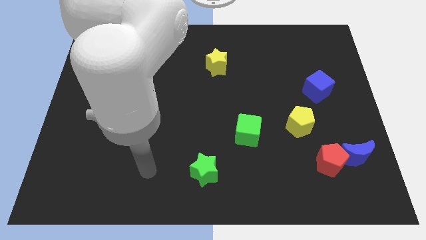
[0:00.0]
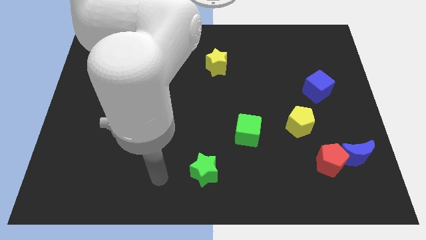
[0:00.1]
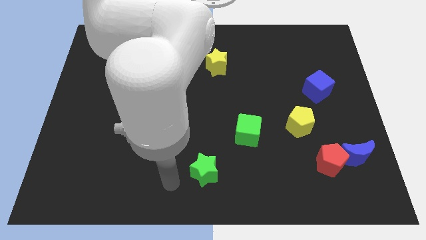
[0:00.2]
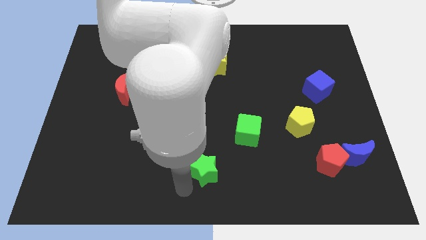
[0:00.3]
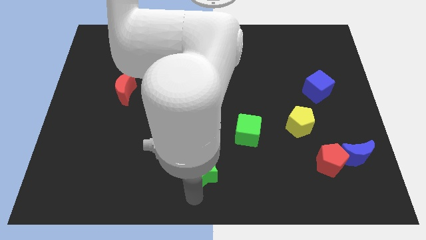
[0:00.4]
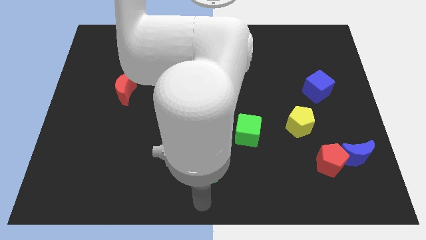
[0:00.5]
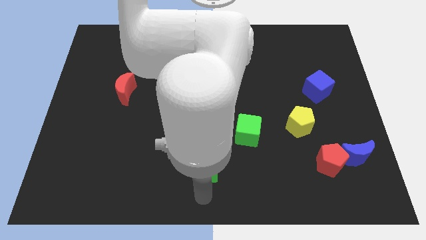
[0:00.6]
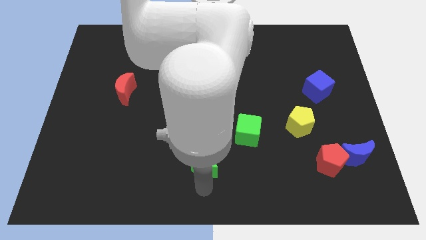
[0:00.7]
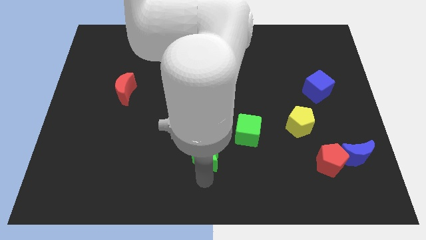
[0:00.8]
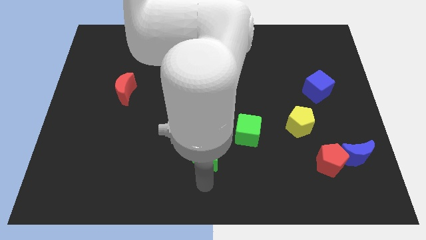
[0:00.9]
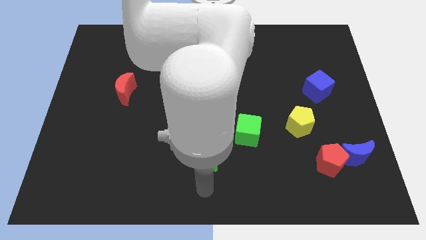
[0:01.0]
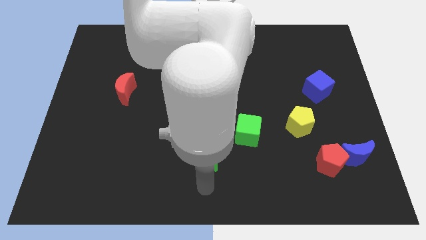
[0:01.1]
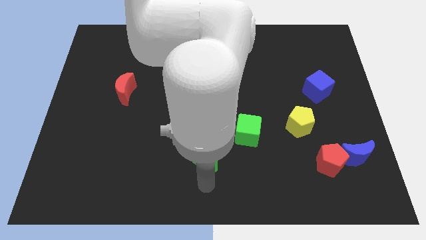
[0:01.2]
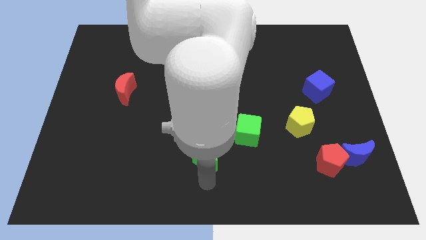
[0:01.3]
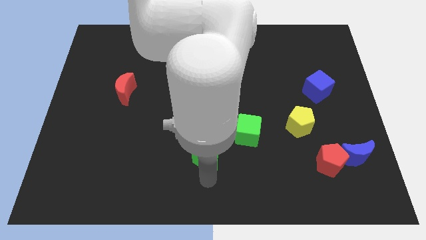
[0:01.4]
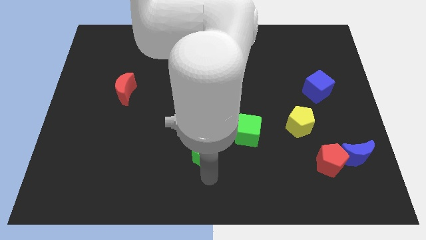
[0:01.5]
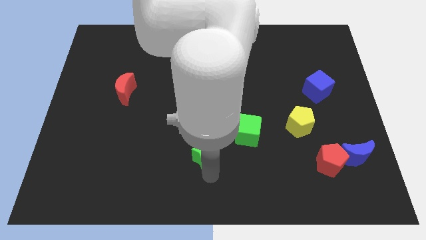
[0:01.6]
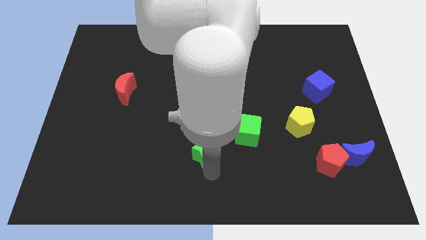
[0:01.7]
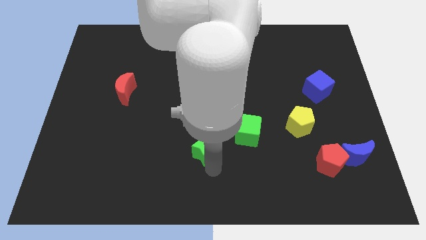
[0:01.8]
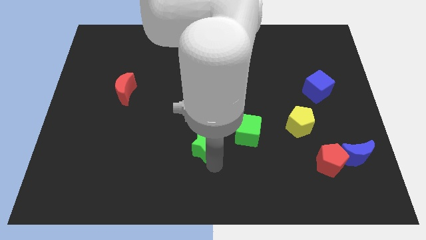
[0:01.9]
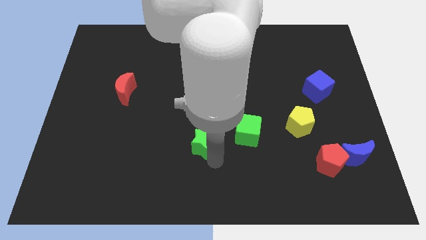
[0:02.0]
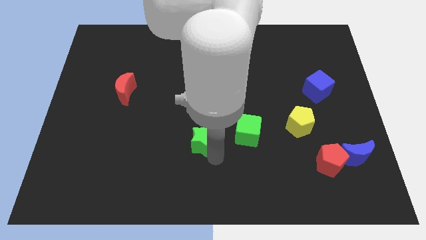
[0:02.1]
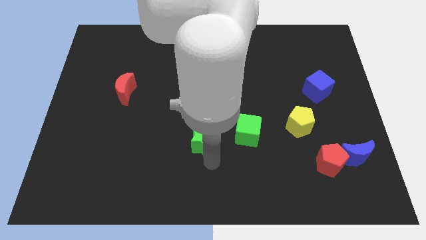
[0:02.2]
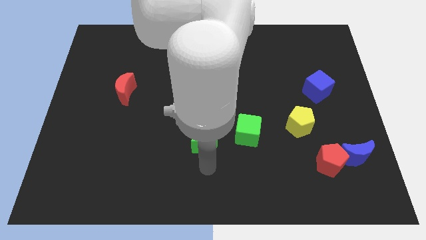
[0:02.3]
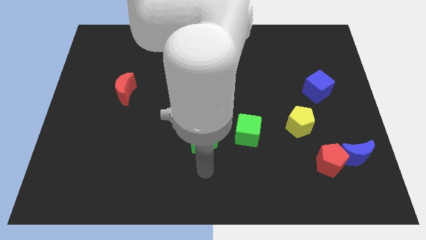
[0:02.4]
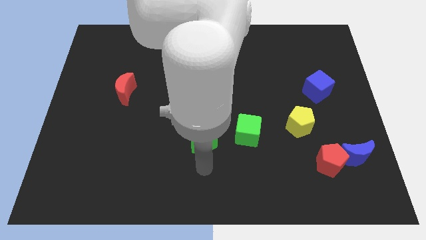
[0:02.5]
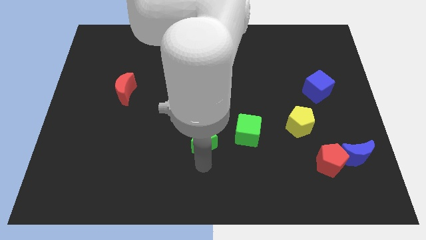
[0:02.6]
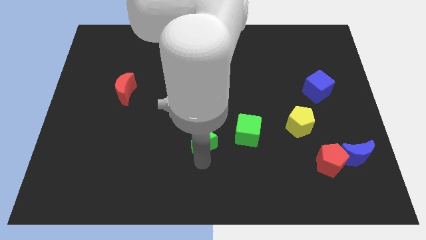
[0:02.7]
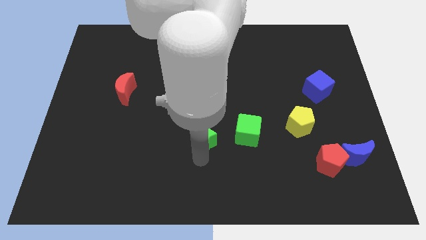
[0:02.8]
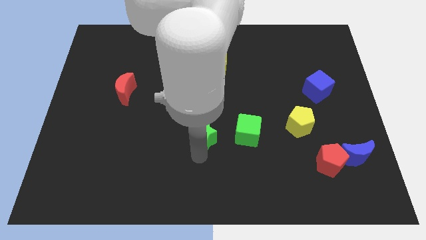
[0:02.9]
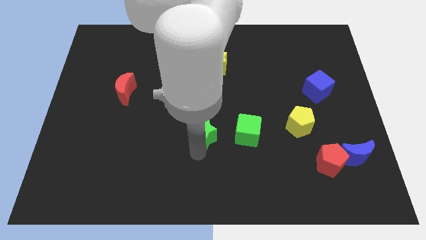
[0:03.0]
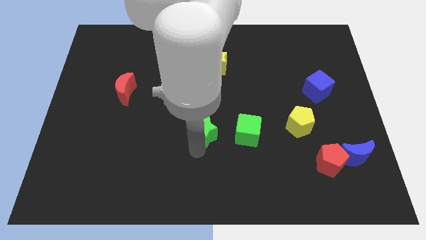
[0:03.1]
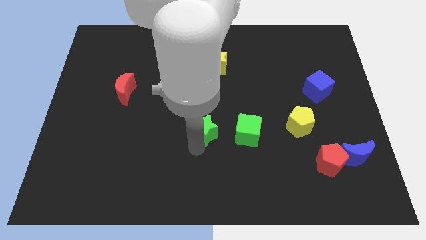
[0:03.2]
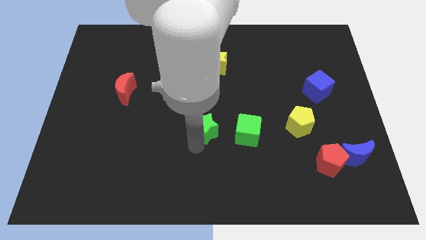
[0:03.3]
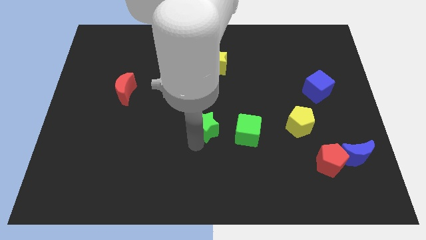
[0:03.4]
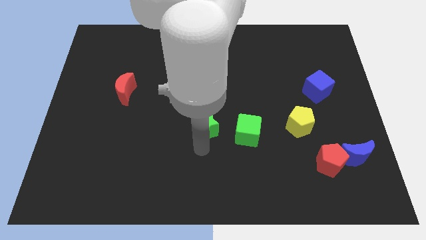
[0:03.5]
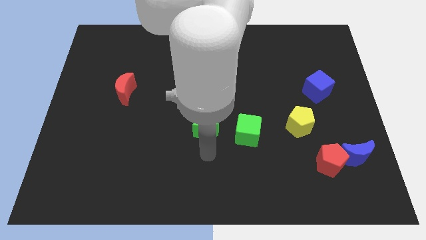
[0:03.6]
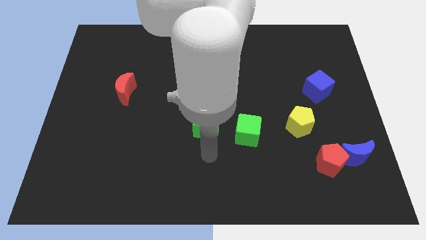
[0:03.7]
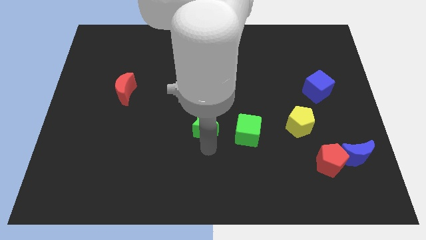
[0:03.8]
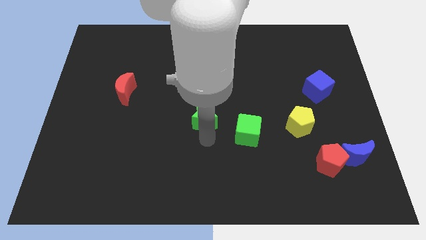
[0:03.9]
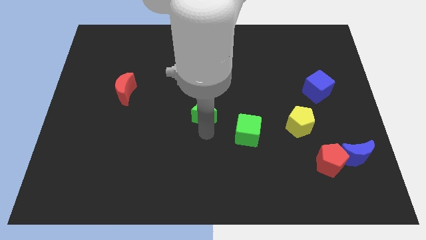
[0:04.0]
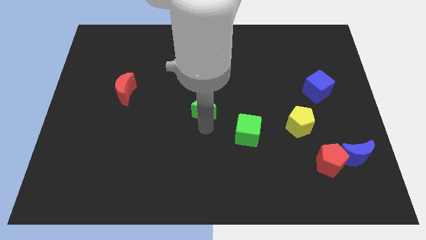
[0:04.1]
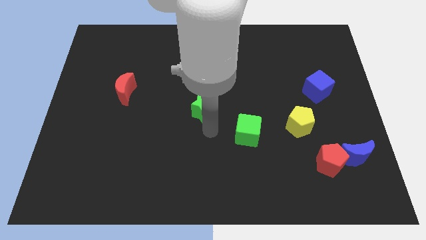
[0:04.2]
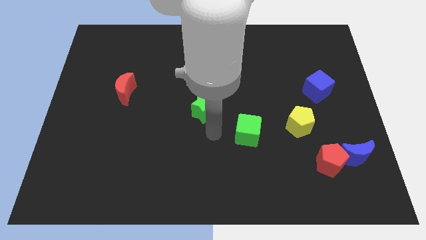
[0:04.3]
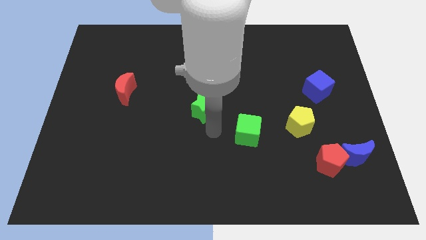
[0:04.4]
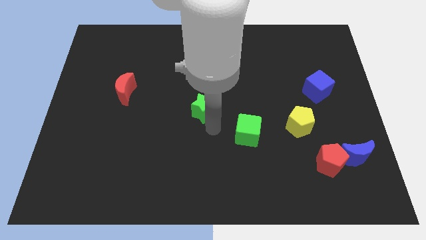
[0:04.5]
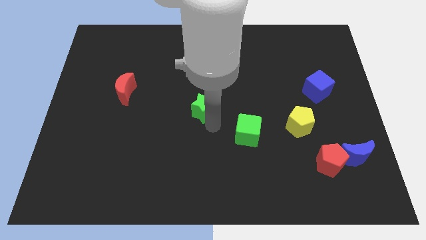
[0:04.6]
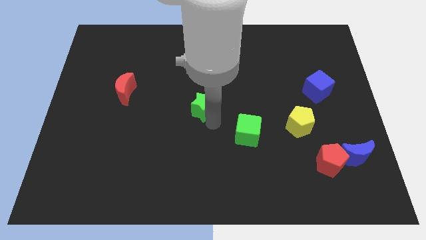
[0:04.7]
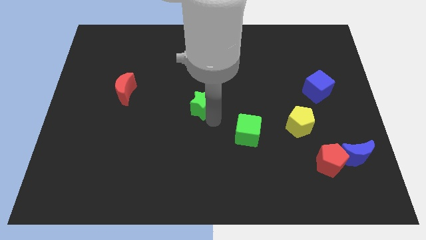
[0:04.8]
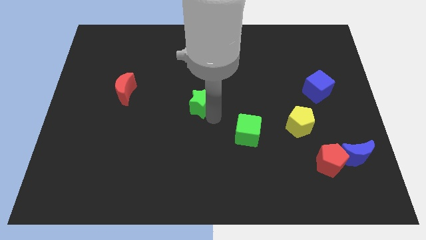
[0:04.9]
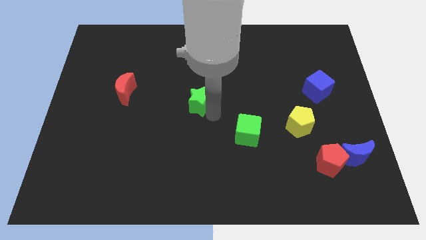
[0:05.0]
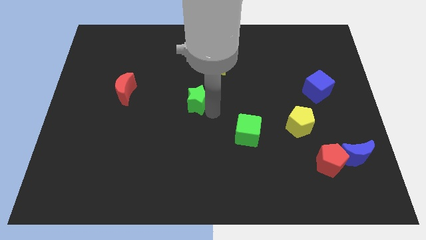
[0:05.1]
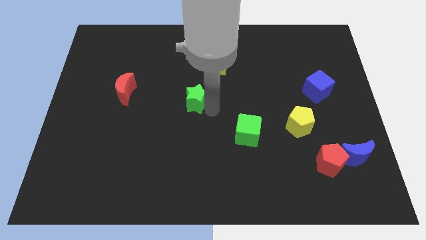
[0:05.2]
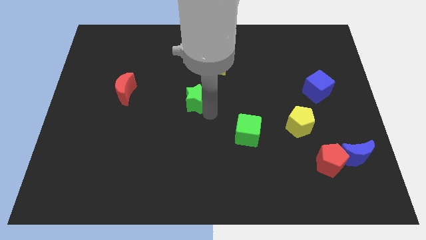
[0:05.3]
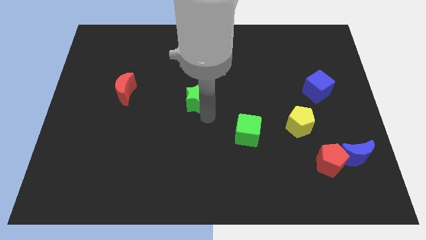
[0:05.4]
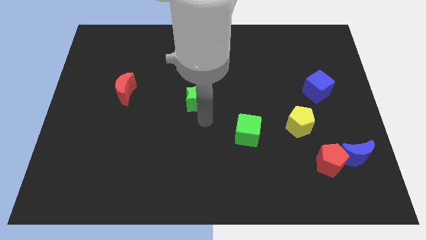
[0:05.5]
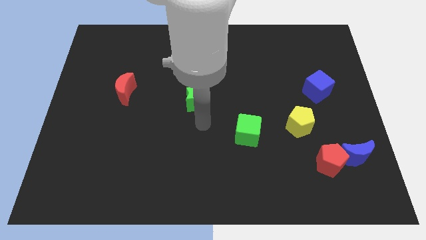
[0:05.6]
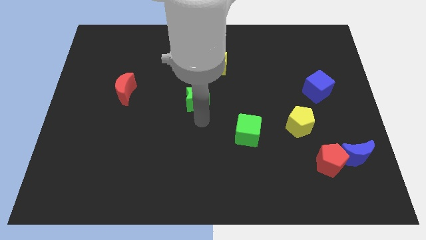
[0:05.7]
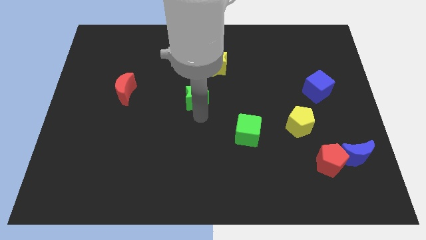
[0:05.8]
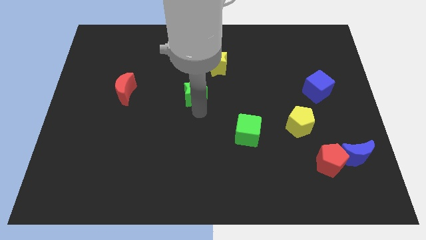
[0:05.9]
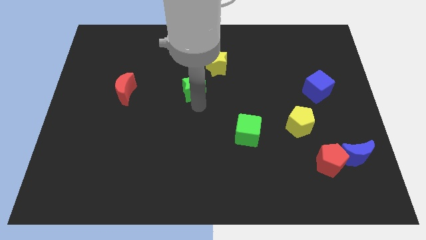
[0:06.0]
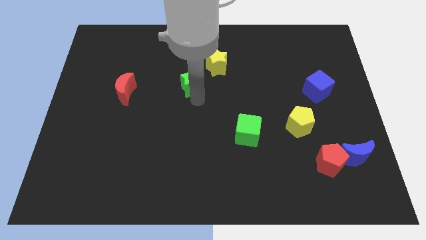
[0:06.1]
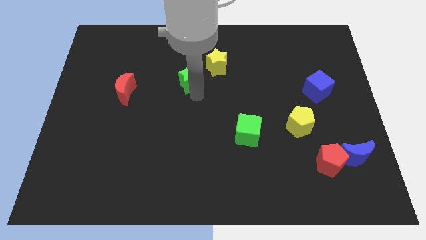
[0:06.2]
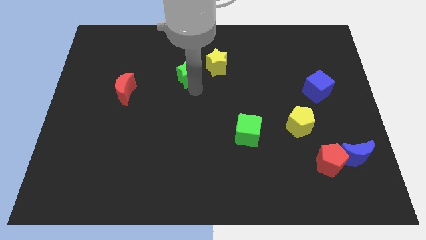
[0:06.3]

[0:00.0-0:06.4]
put the green star just left of the yellow star

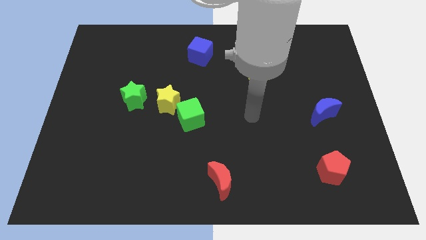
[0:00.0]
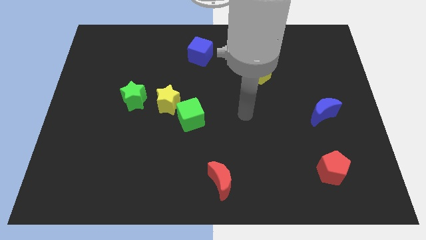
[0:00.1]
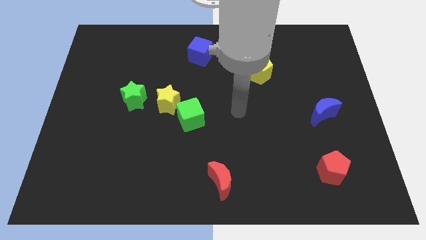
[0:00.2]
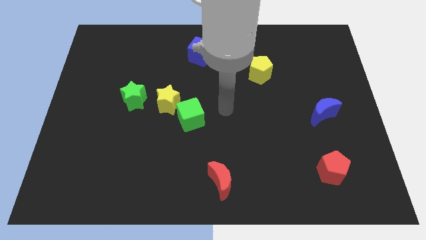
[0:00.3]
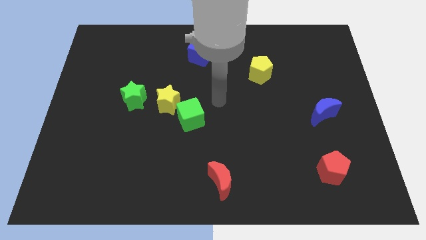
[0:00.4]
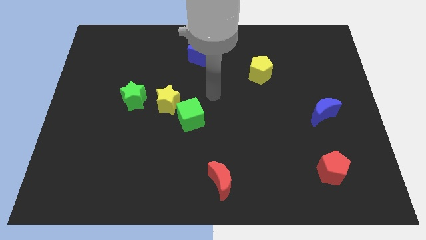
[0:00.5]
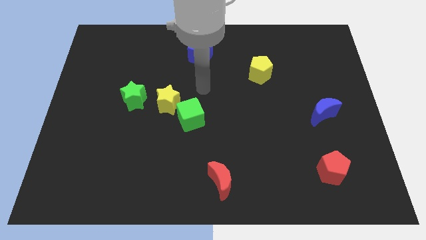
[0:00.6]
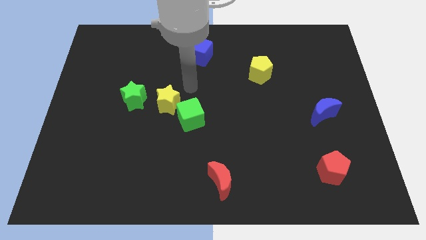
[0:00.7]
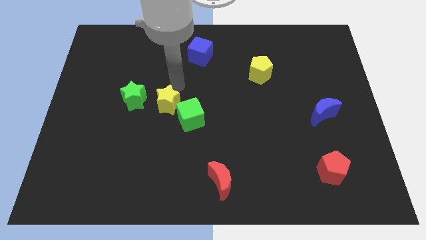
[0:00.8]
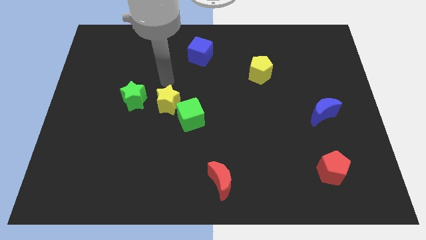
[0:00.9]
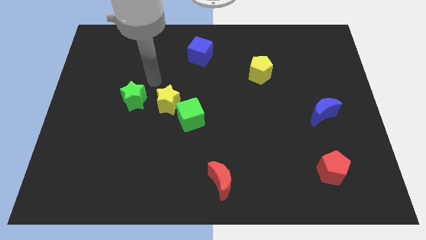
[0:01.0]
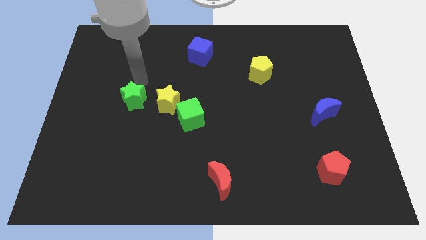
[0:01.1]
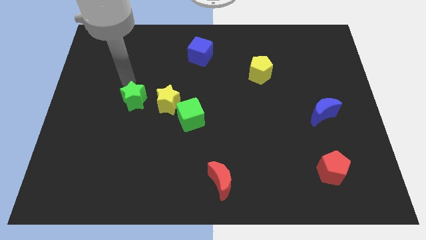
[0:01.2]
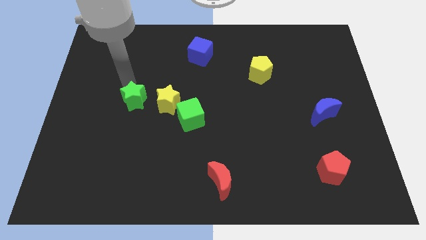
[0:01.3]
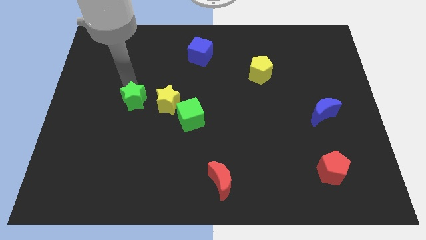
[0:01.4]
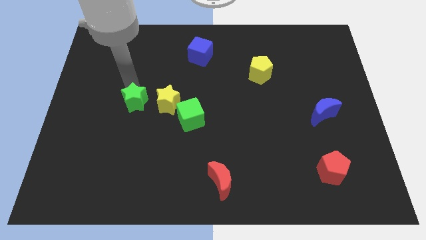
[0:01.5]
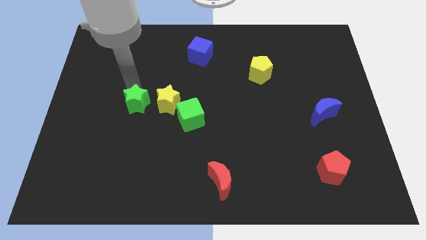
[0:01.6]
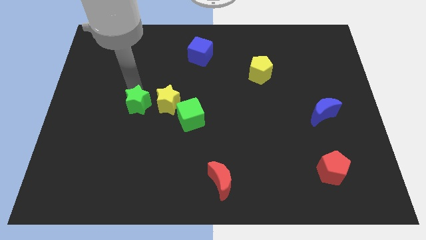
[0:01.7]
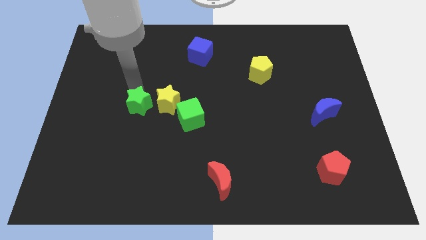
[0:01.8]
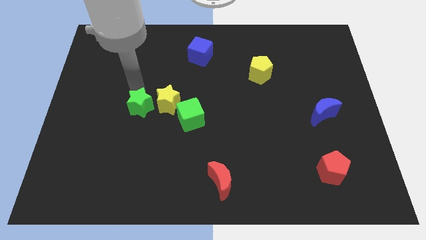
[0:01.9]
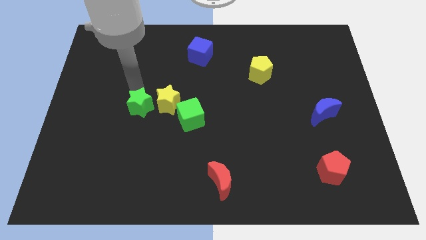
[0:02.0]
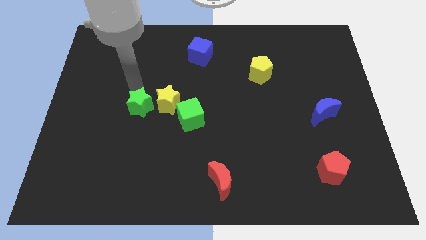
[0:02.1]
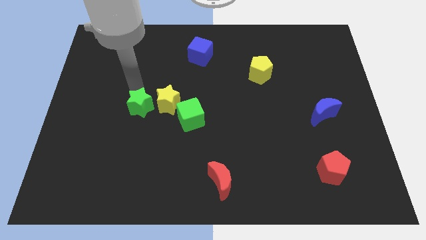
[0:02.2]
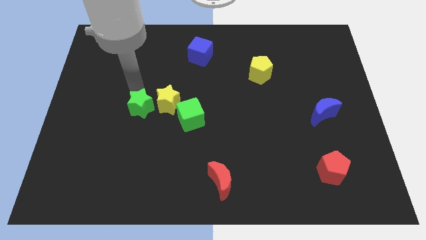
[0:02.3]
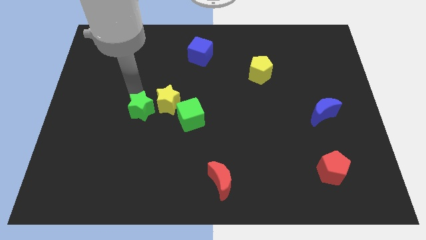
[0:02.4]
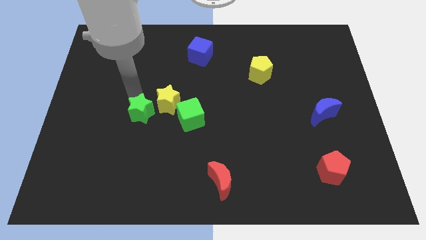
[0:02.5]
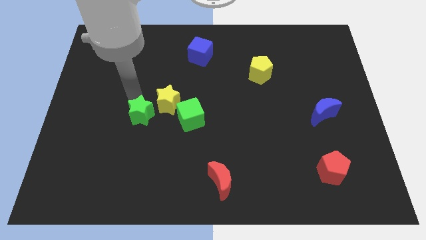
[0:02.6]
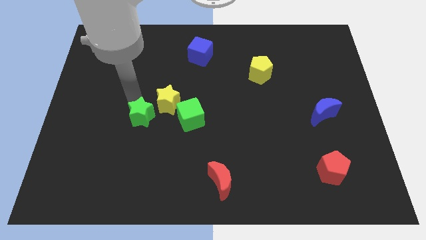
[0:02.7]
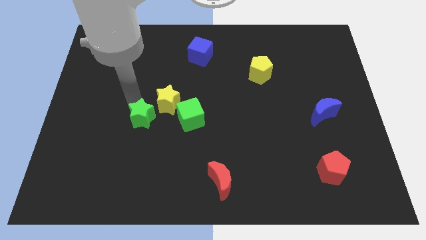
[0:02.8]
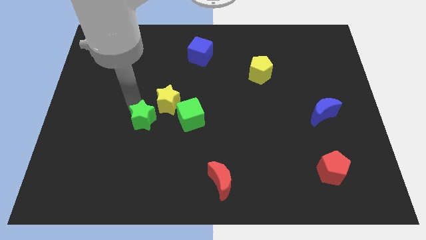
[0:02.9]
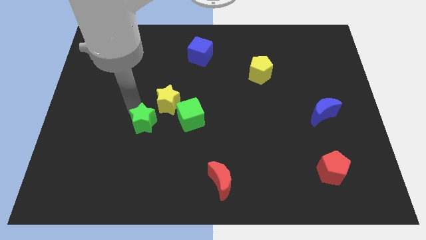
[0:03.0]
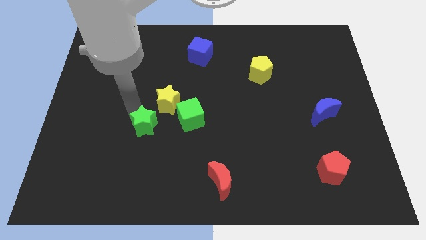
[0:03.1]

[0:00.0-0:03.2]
push the green star to the bottom of the yellow star
